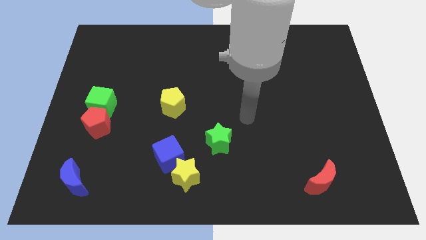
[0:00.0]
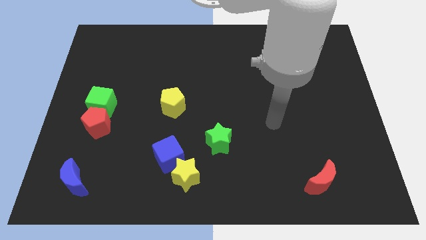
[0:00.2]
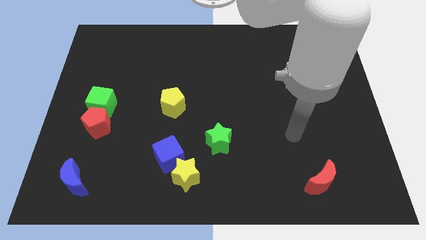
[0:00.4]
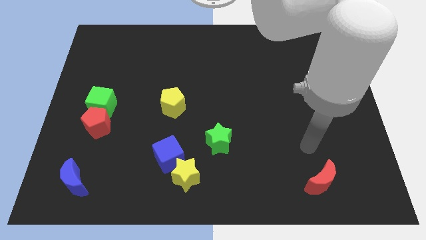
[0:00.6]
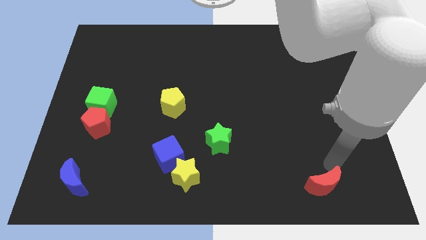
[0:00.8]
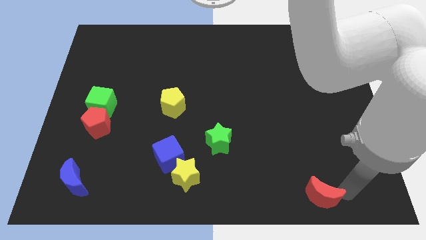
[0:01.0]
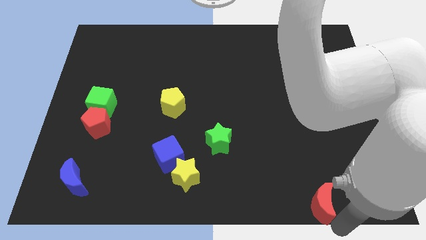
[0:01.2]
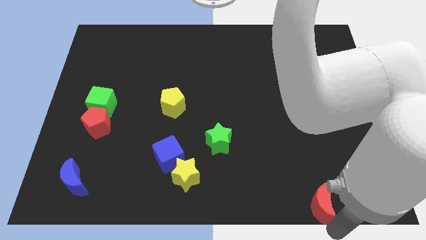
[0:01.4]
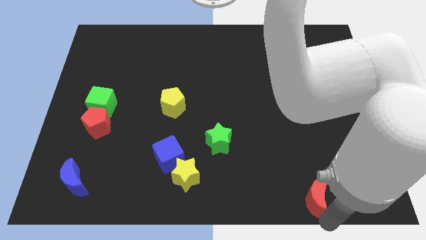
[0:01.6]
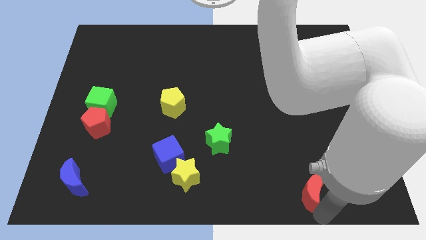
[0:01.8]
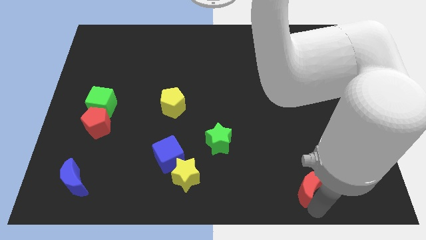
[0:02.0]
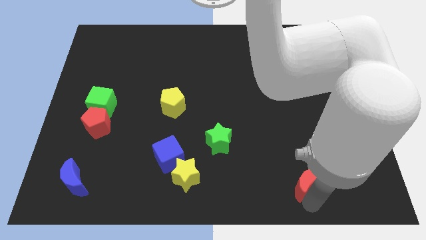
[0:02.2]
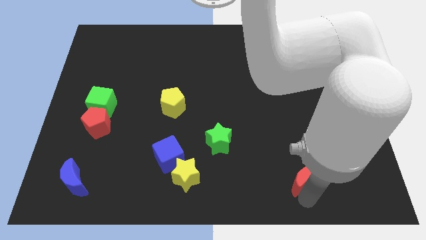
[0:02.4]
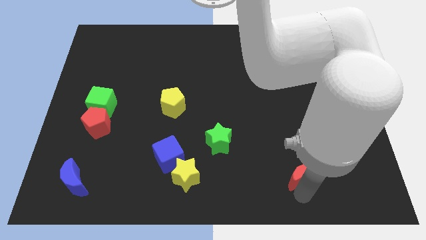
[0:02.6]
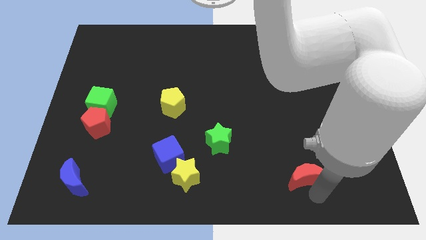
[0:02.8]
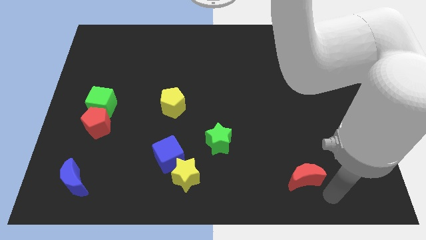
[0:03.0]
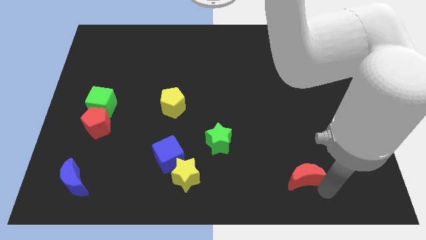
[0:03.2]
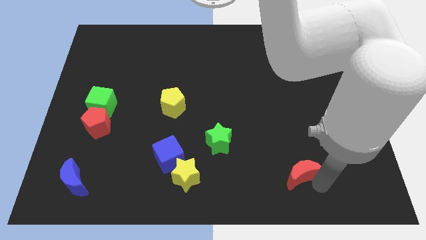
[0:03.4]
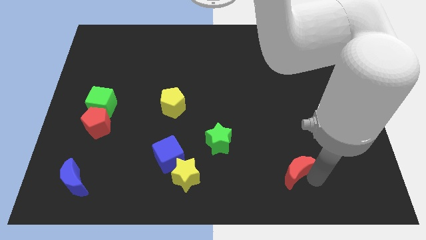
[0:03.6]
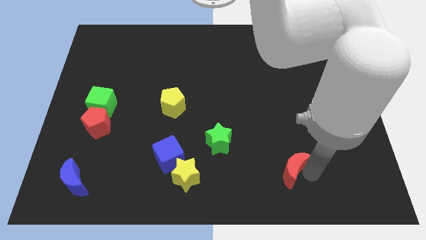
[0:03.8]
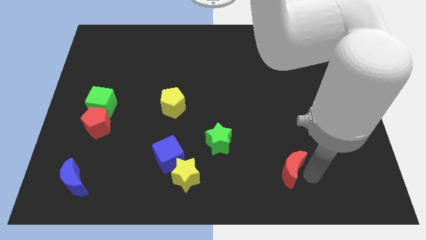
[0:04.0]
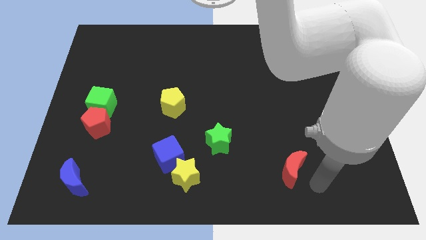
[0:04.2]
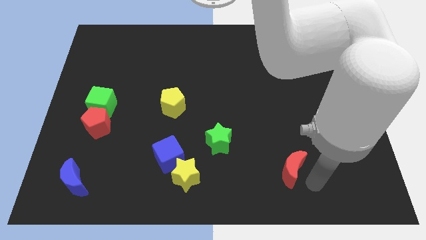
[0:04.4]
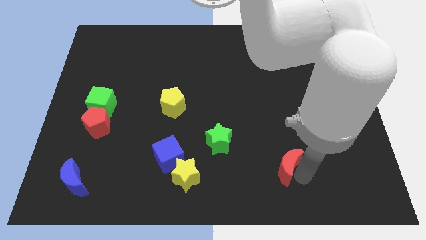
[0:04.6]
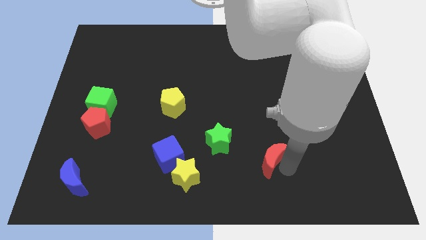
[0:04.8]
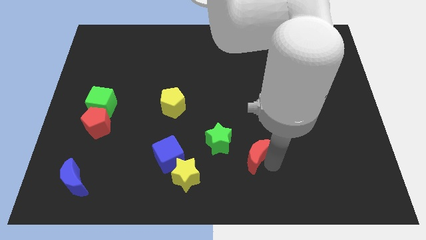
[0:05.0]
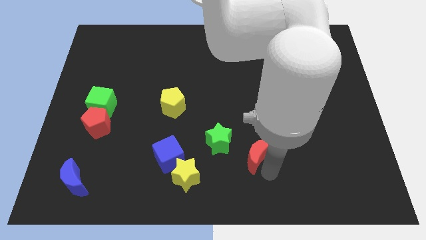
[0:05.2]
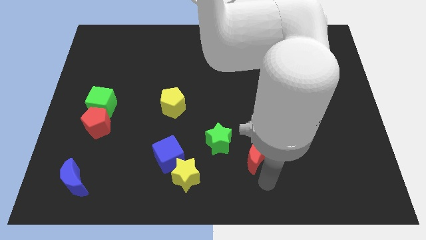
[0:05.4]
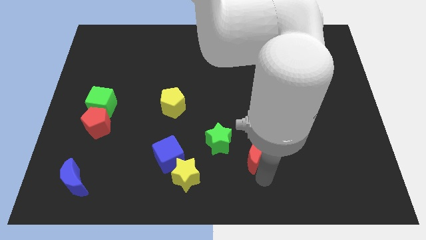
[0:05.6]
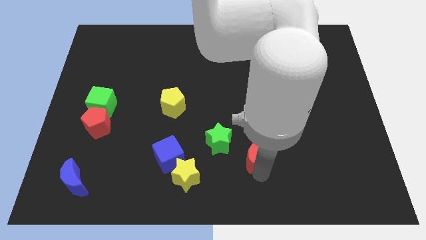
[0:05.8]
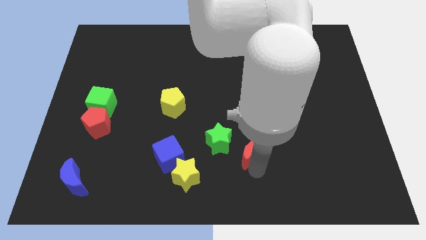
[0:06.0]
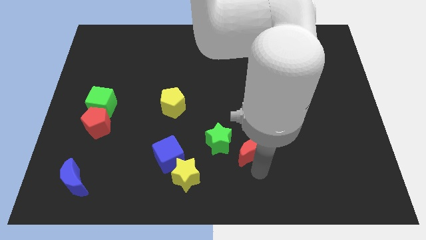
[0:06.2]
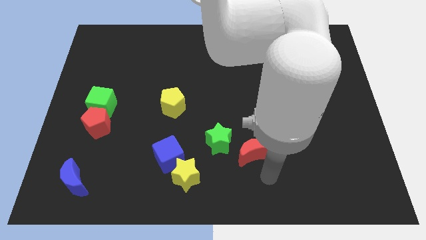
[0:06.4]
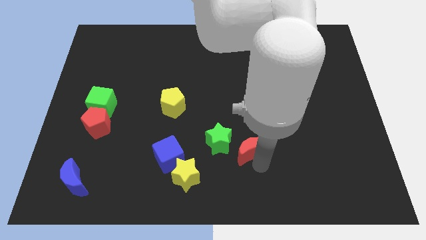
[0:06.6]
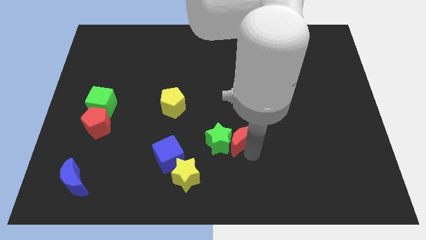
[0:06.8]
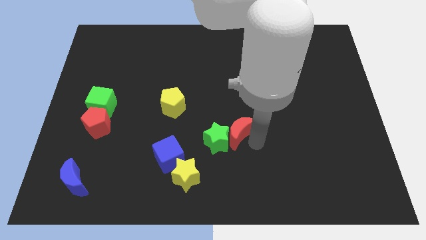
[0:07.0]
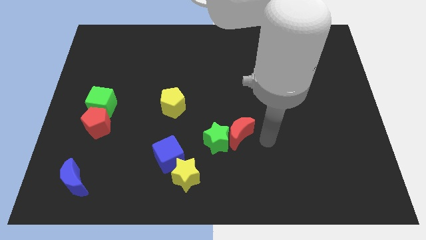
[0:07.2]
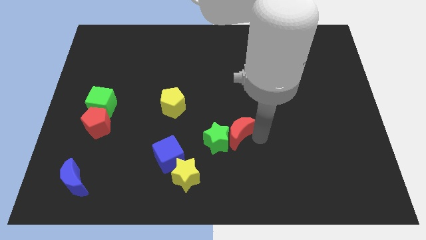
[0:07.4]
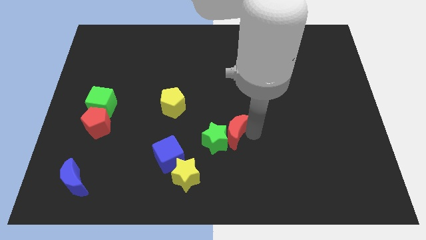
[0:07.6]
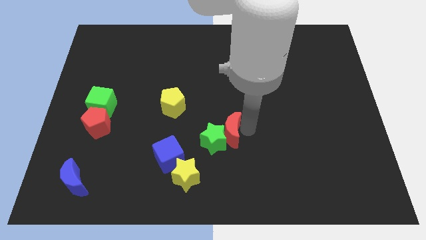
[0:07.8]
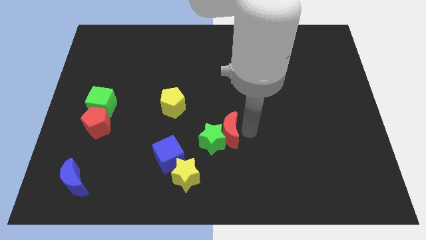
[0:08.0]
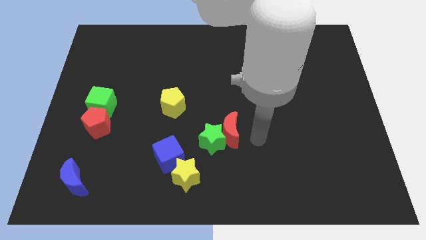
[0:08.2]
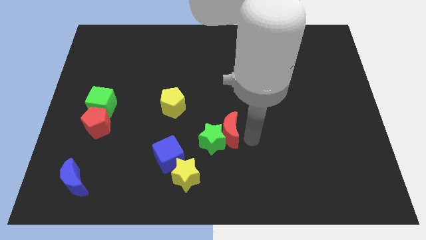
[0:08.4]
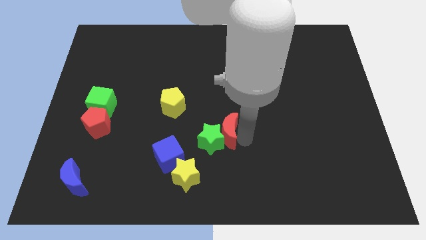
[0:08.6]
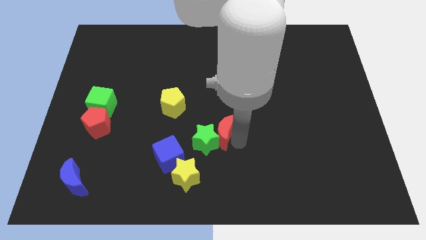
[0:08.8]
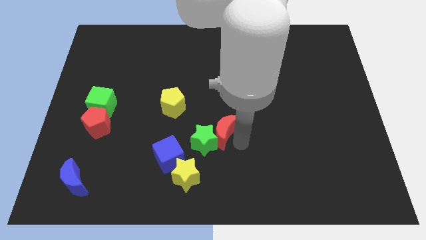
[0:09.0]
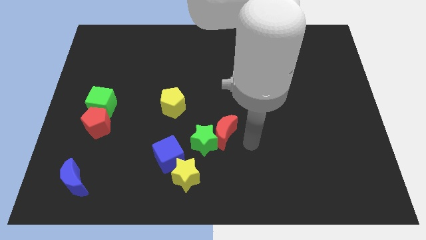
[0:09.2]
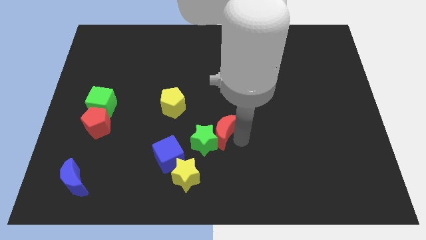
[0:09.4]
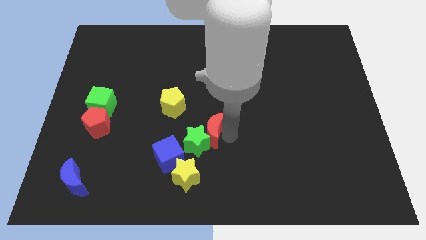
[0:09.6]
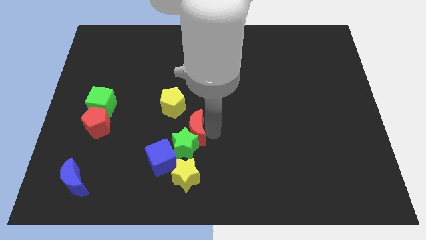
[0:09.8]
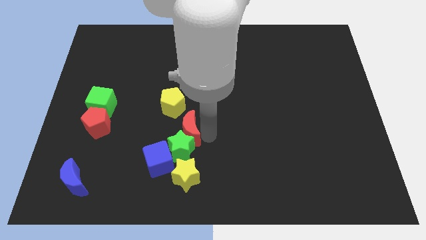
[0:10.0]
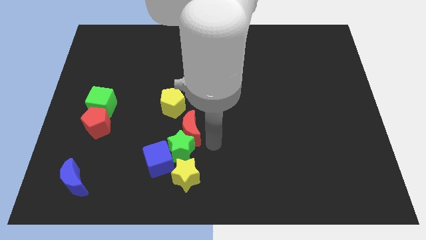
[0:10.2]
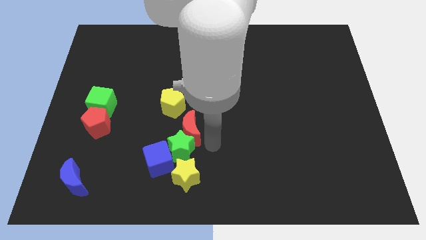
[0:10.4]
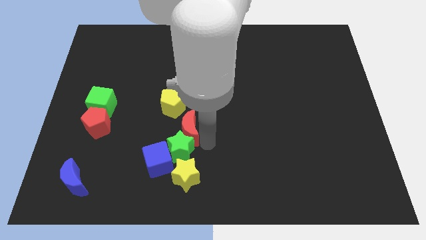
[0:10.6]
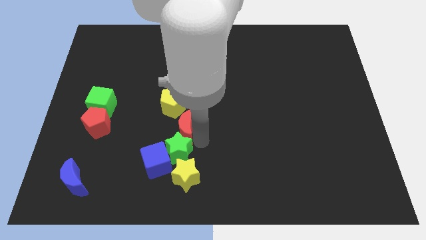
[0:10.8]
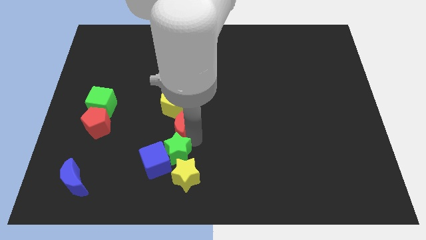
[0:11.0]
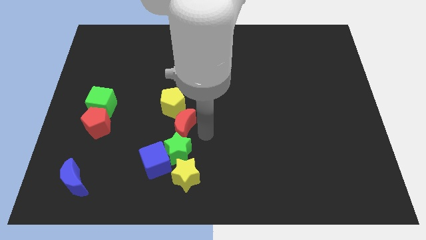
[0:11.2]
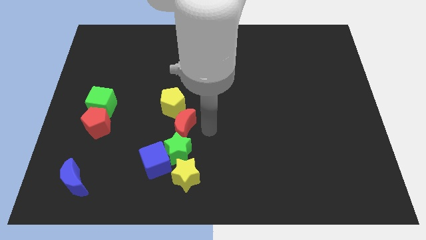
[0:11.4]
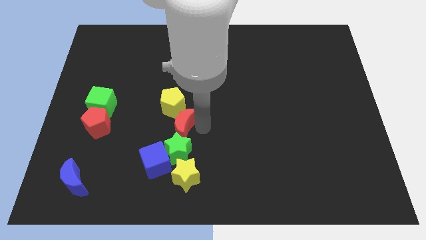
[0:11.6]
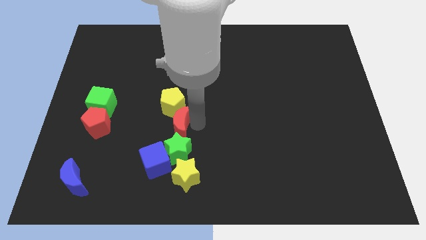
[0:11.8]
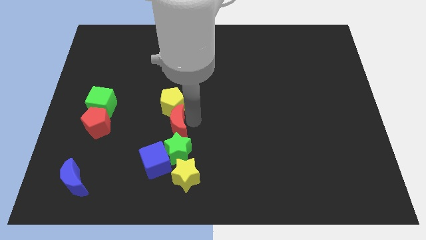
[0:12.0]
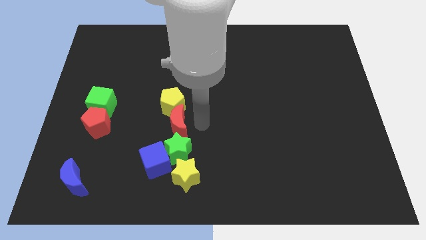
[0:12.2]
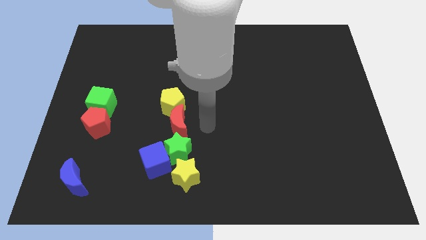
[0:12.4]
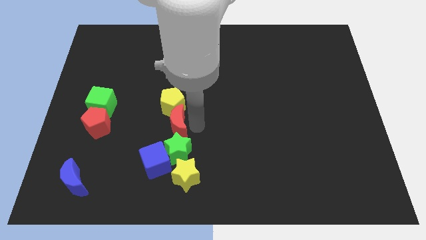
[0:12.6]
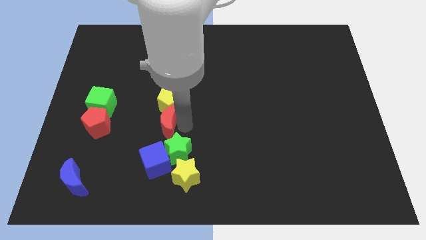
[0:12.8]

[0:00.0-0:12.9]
move the red moon just right of the red pentagon

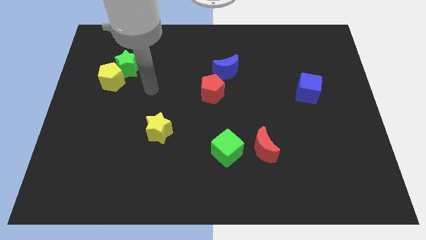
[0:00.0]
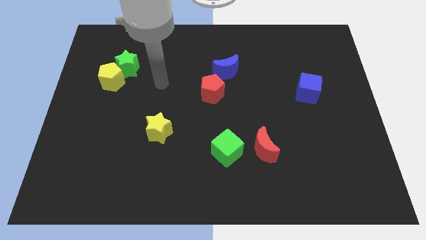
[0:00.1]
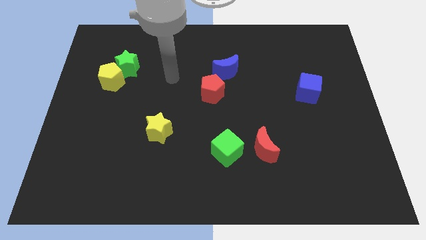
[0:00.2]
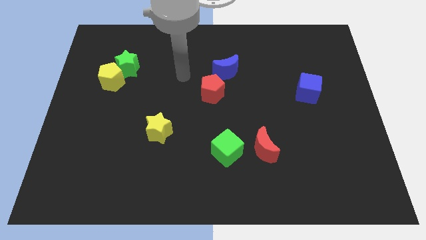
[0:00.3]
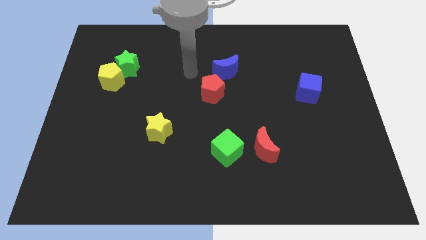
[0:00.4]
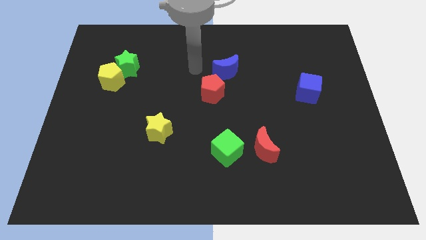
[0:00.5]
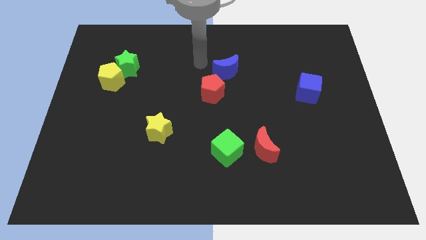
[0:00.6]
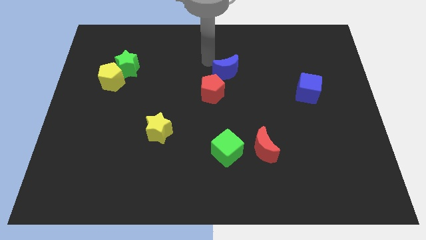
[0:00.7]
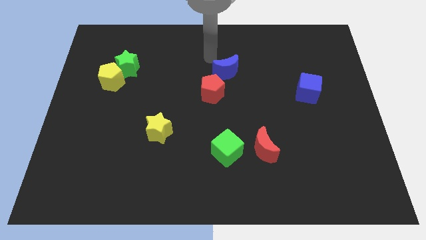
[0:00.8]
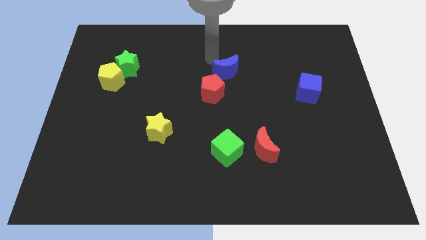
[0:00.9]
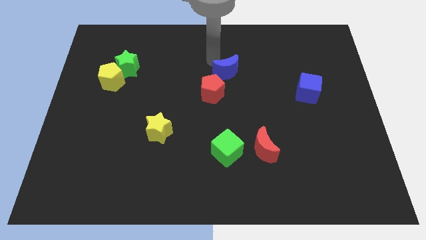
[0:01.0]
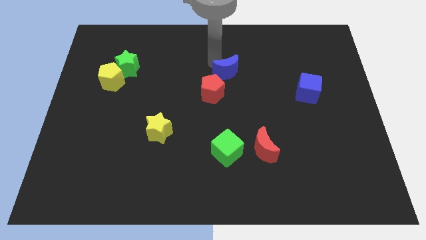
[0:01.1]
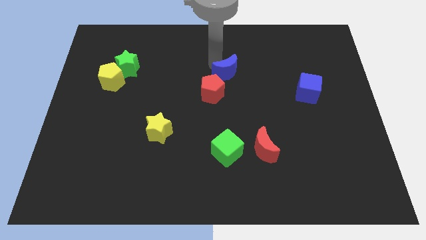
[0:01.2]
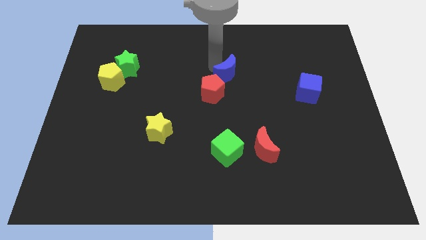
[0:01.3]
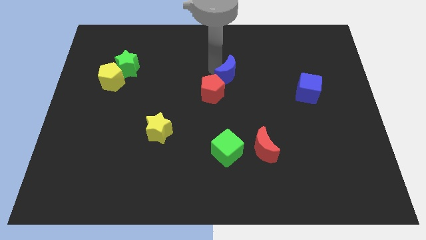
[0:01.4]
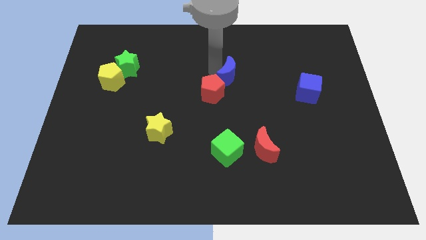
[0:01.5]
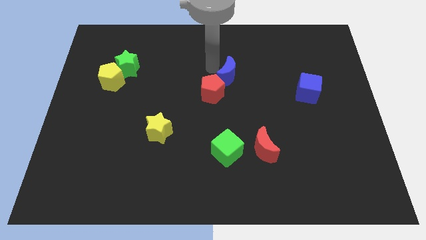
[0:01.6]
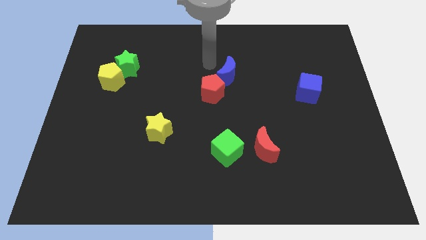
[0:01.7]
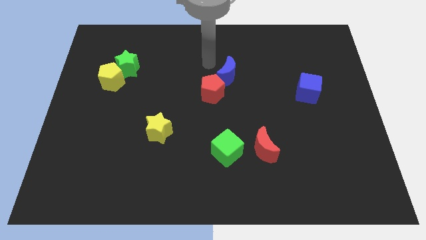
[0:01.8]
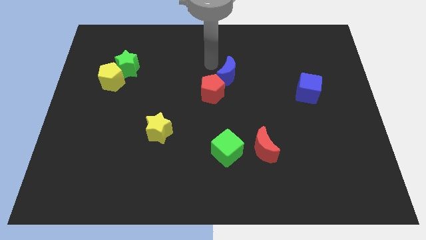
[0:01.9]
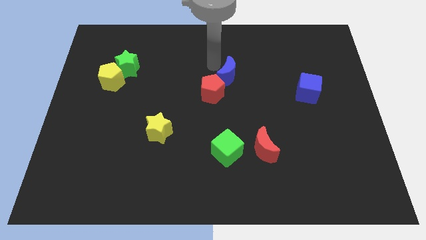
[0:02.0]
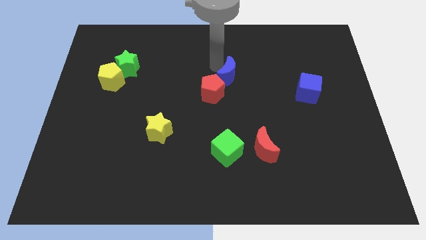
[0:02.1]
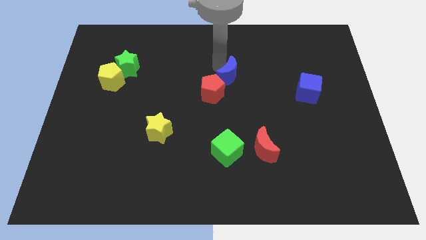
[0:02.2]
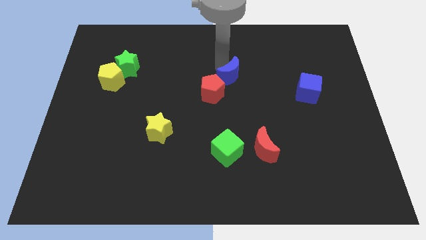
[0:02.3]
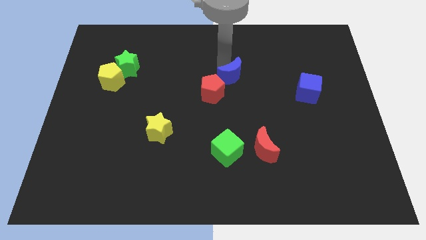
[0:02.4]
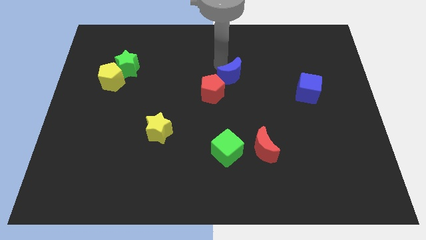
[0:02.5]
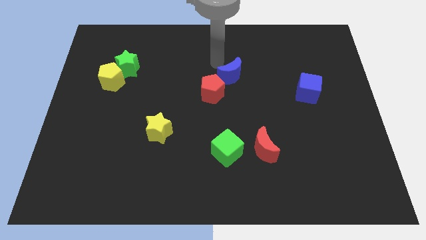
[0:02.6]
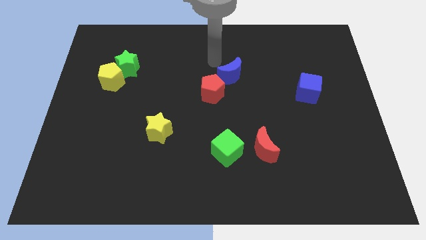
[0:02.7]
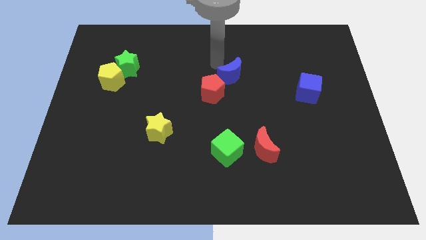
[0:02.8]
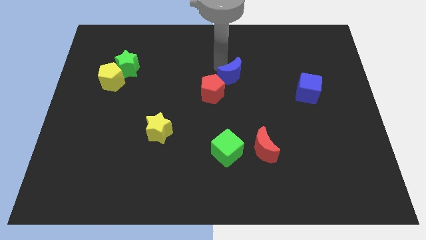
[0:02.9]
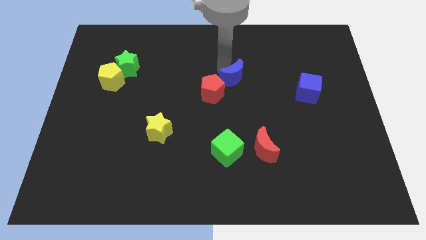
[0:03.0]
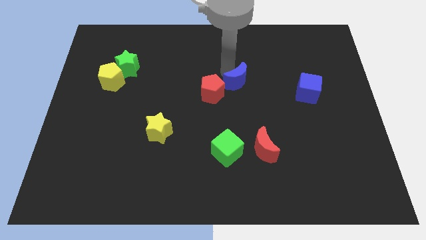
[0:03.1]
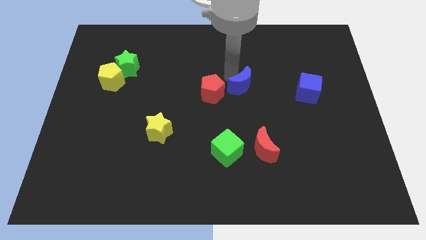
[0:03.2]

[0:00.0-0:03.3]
push the blue moon just left of the blue cube
